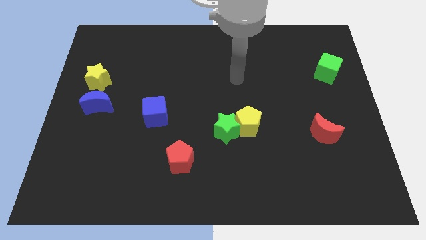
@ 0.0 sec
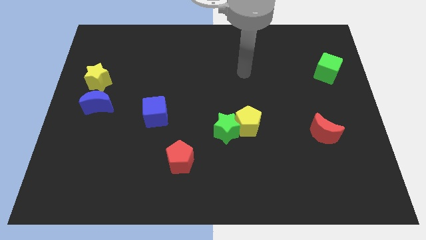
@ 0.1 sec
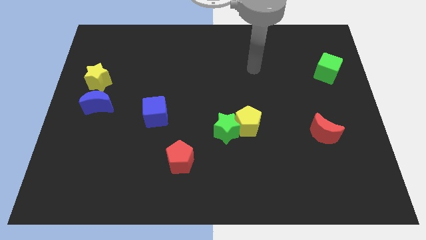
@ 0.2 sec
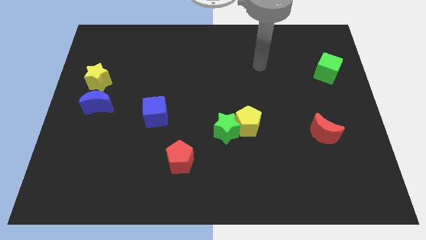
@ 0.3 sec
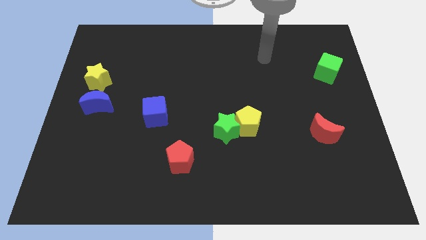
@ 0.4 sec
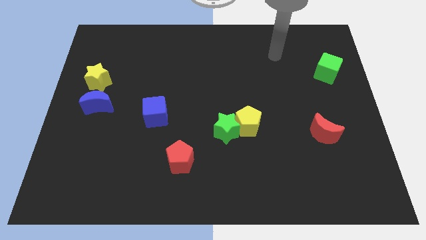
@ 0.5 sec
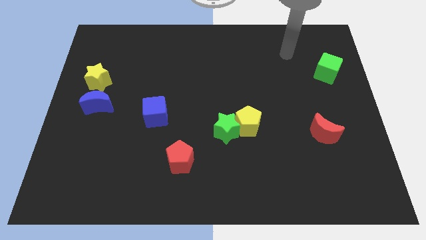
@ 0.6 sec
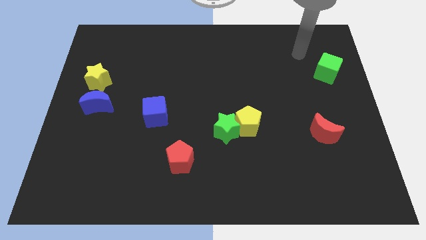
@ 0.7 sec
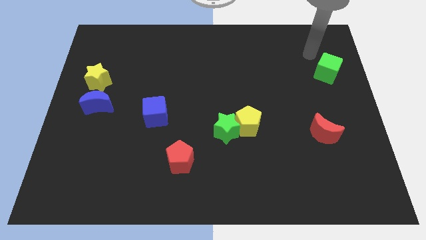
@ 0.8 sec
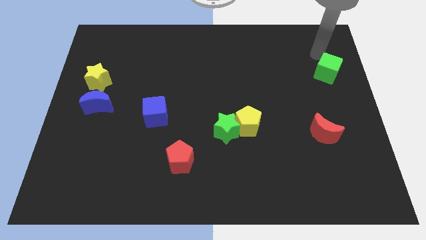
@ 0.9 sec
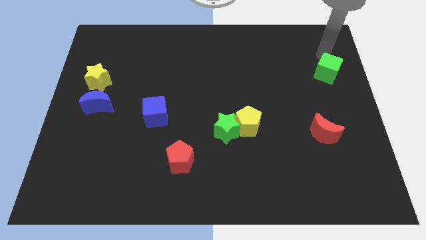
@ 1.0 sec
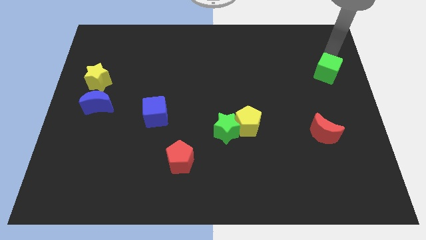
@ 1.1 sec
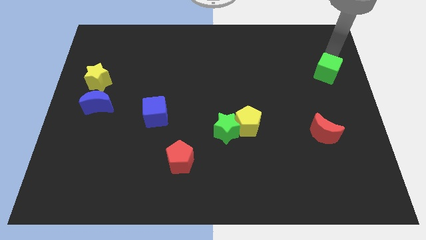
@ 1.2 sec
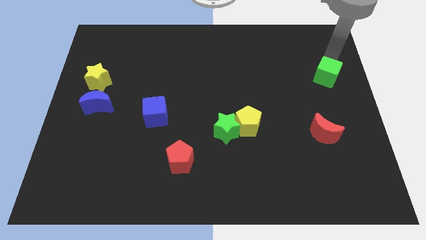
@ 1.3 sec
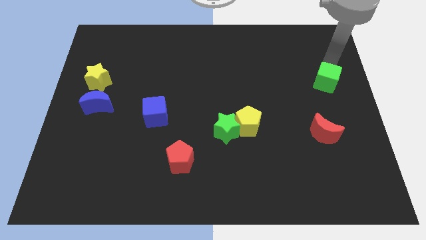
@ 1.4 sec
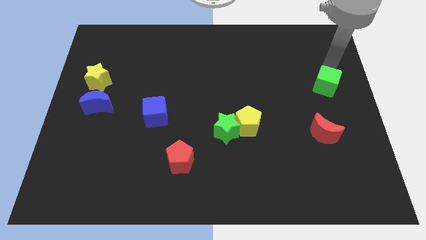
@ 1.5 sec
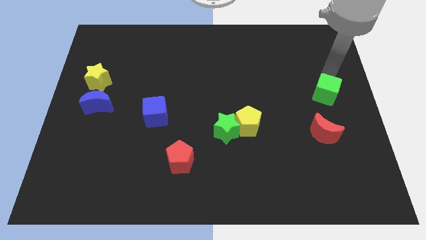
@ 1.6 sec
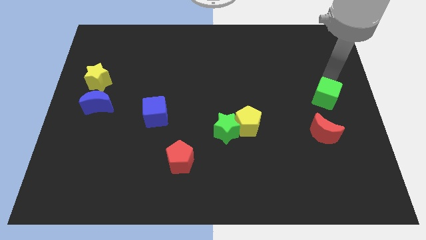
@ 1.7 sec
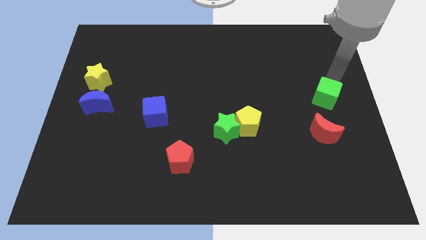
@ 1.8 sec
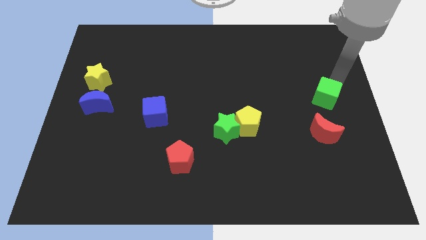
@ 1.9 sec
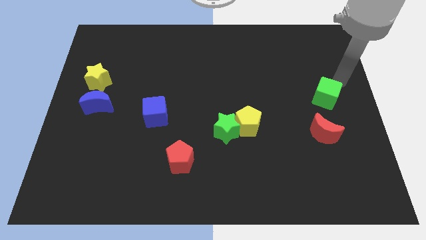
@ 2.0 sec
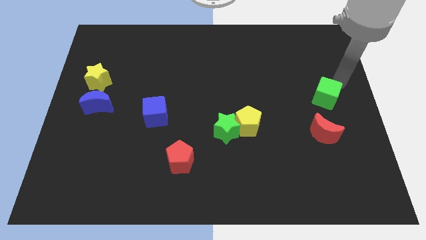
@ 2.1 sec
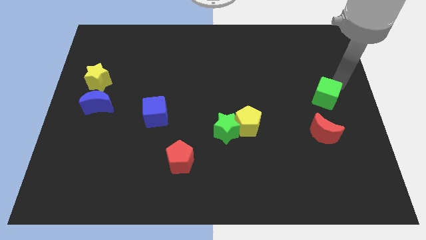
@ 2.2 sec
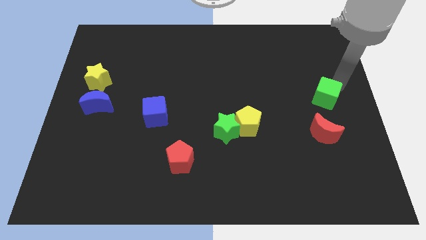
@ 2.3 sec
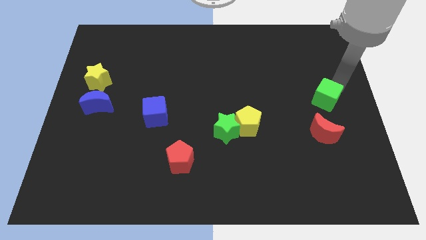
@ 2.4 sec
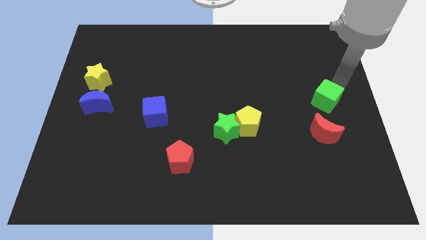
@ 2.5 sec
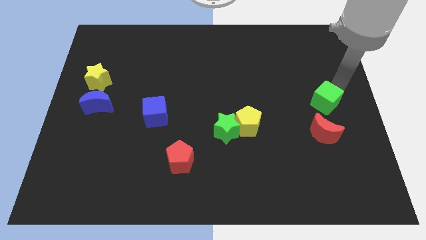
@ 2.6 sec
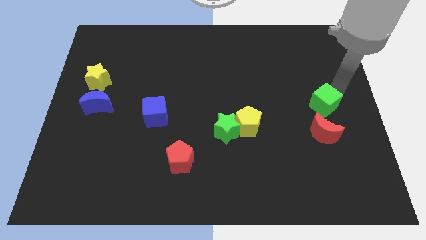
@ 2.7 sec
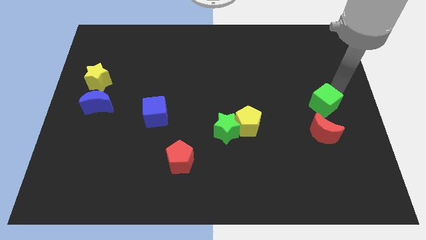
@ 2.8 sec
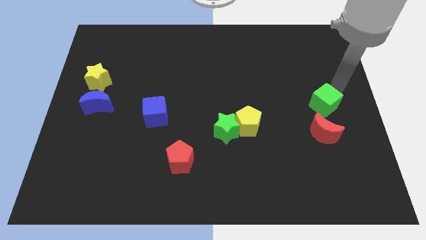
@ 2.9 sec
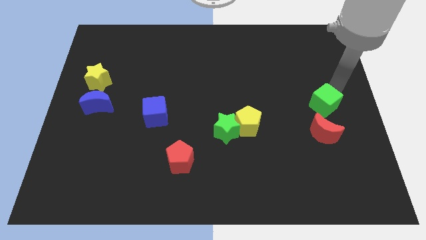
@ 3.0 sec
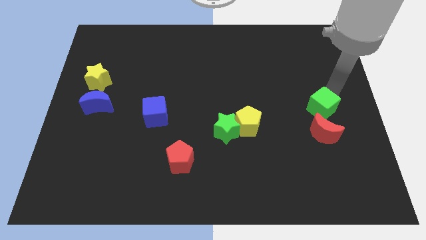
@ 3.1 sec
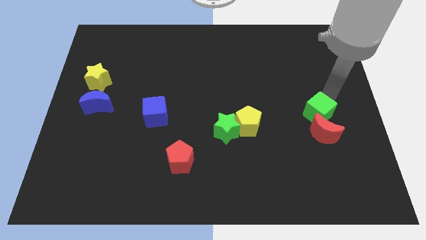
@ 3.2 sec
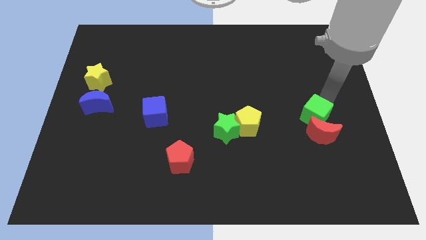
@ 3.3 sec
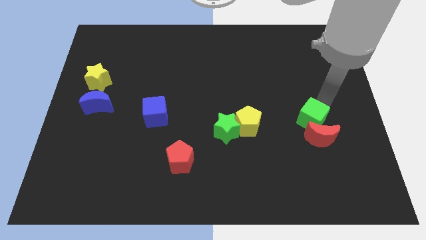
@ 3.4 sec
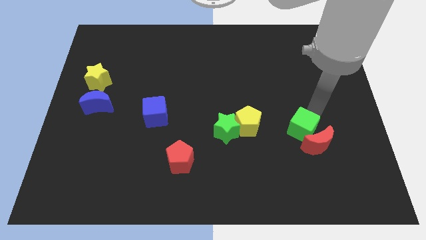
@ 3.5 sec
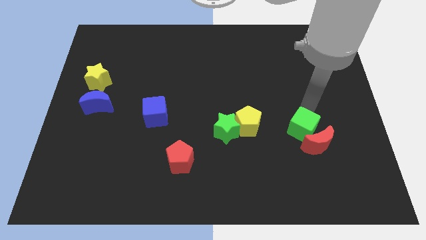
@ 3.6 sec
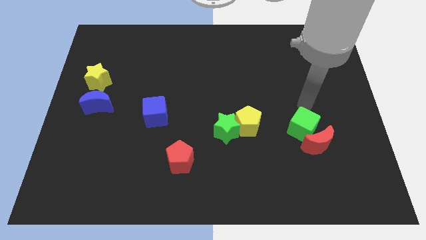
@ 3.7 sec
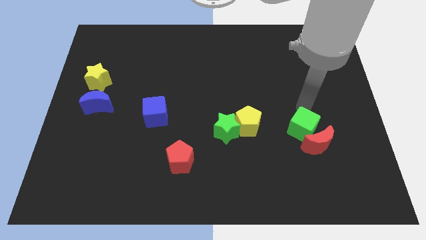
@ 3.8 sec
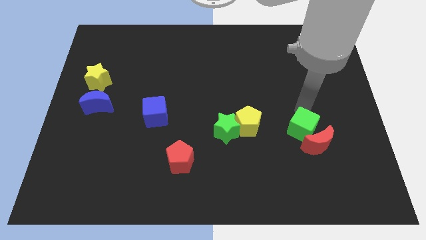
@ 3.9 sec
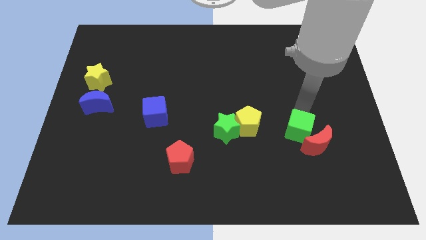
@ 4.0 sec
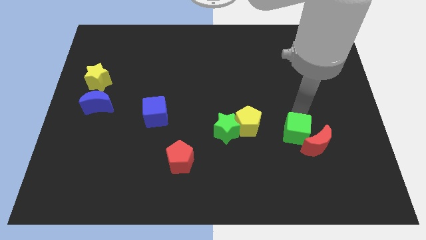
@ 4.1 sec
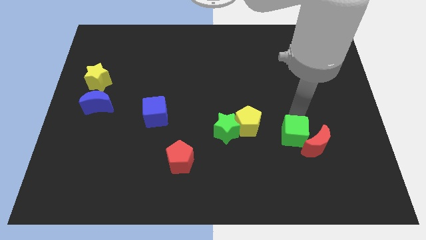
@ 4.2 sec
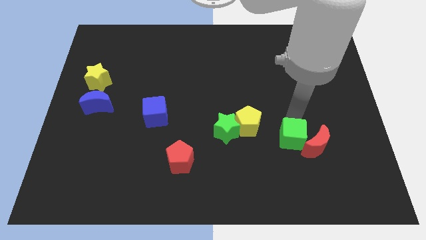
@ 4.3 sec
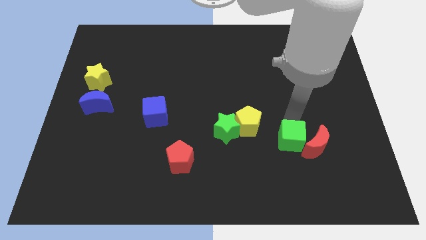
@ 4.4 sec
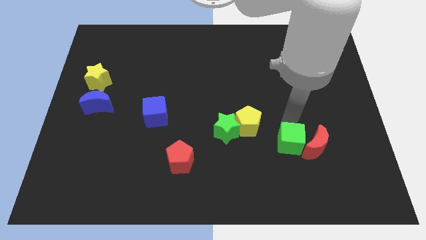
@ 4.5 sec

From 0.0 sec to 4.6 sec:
push the green cube to the bottom left of the red moon

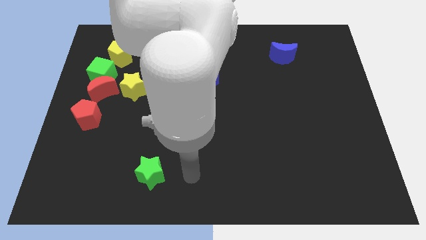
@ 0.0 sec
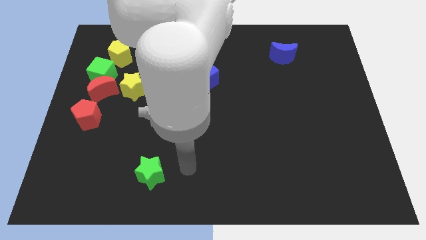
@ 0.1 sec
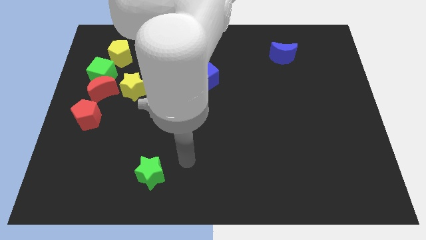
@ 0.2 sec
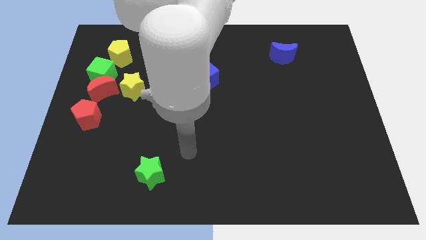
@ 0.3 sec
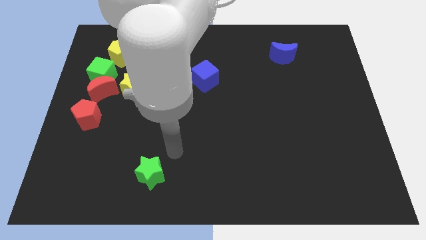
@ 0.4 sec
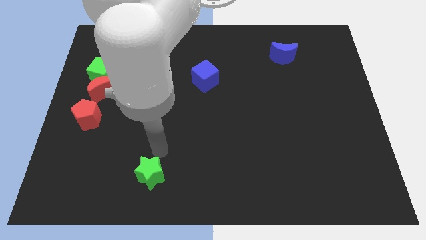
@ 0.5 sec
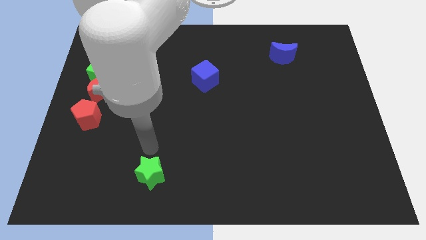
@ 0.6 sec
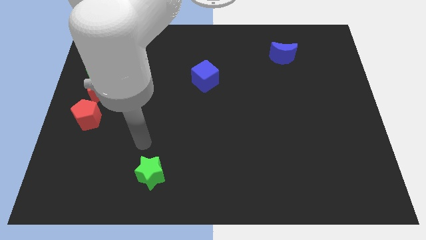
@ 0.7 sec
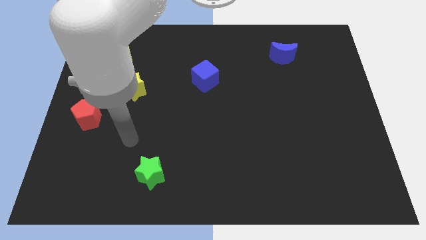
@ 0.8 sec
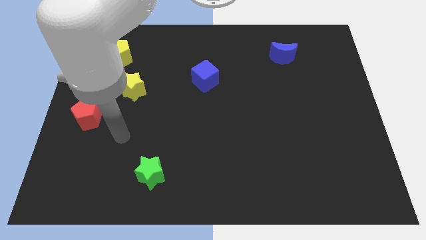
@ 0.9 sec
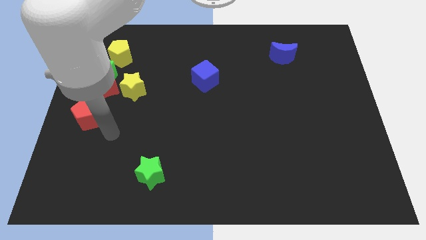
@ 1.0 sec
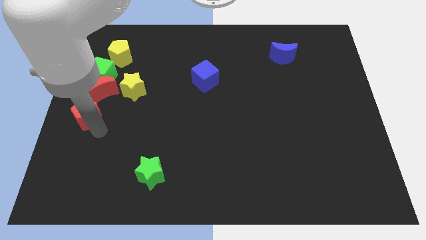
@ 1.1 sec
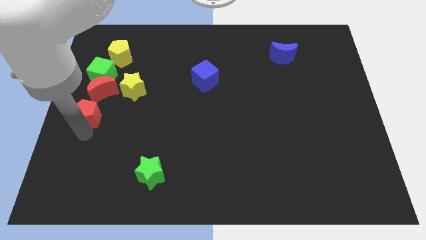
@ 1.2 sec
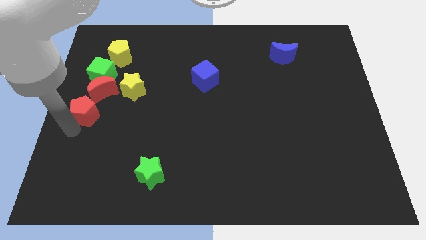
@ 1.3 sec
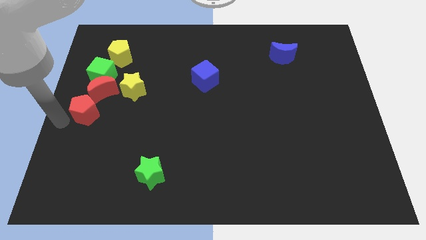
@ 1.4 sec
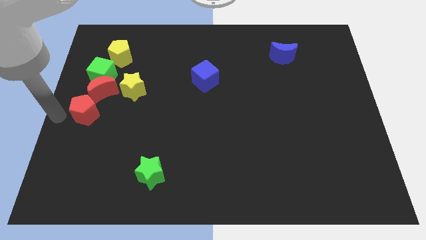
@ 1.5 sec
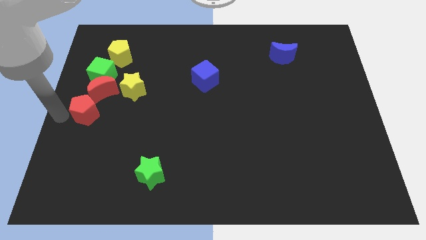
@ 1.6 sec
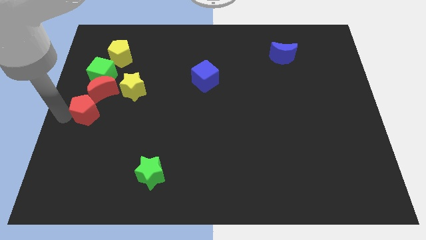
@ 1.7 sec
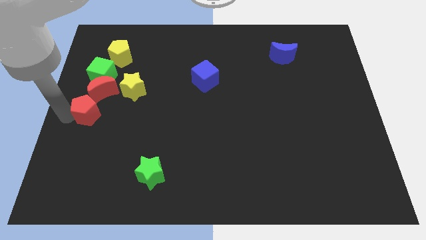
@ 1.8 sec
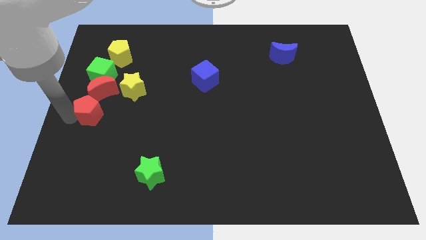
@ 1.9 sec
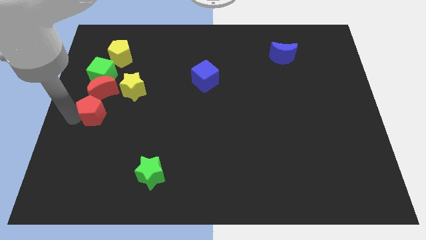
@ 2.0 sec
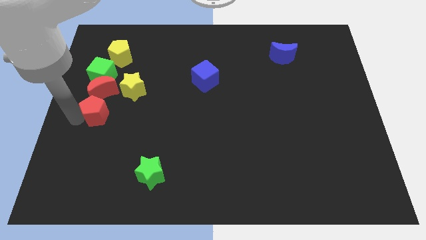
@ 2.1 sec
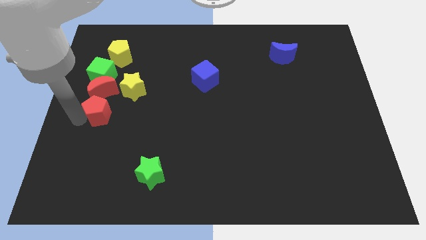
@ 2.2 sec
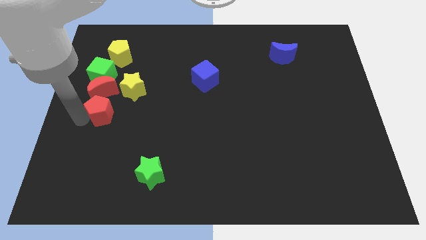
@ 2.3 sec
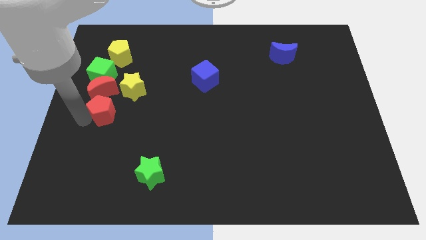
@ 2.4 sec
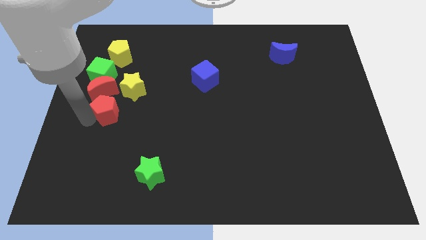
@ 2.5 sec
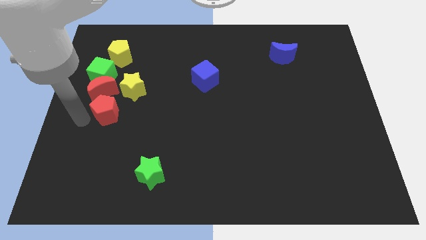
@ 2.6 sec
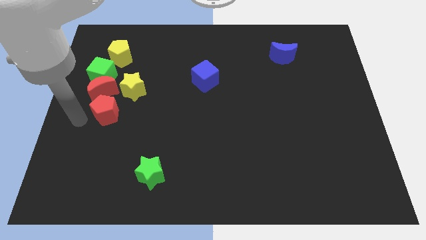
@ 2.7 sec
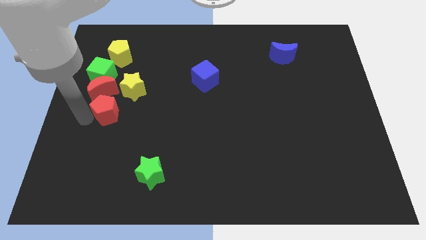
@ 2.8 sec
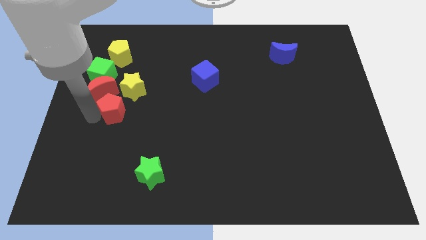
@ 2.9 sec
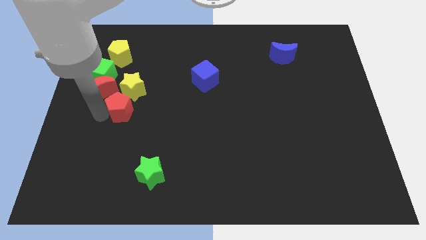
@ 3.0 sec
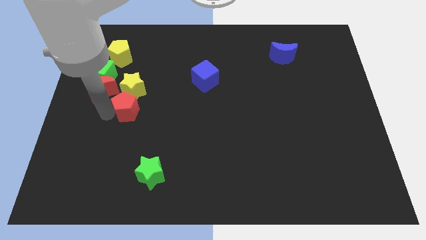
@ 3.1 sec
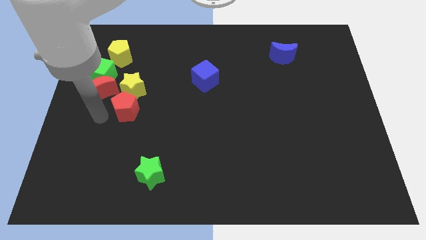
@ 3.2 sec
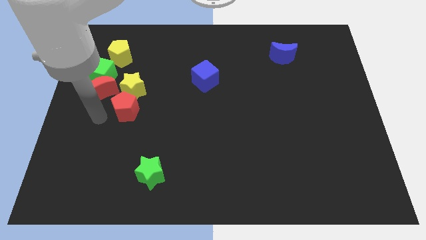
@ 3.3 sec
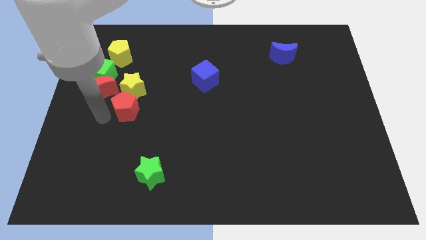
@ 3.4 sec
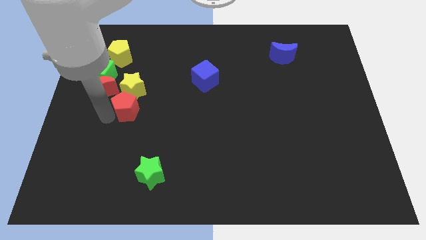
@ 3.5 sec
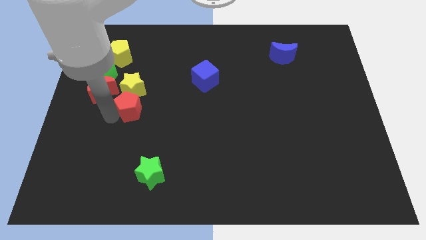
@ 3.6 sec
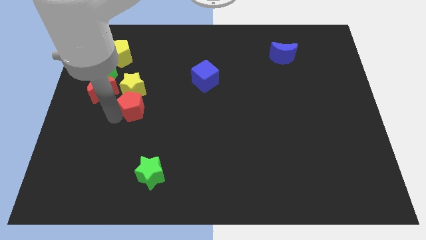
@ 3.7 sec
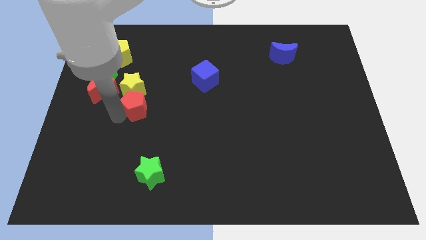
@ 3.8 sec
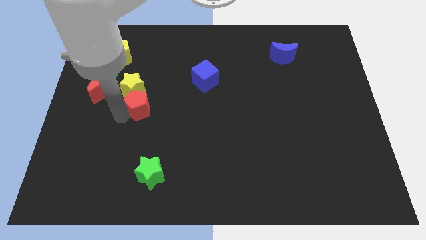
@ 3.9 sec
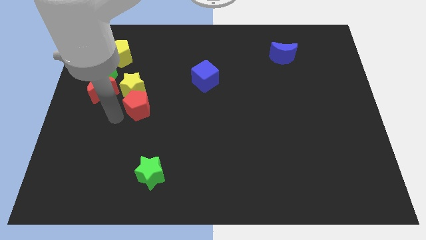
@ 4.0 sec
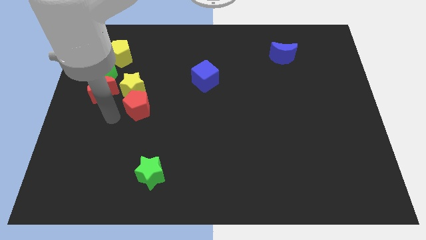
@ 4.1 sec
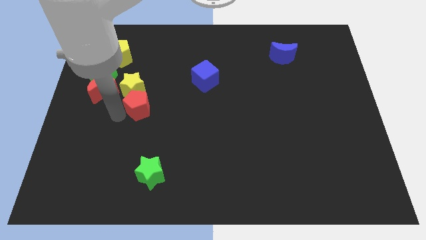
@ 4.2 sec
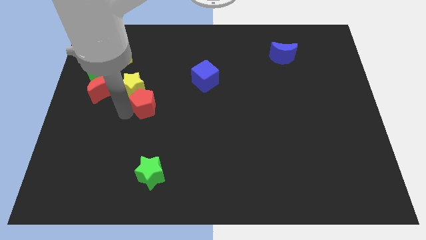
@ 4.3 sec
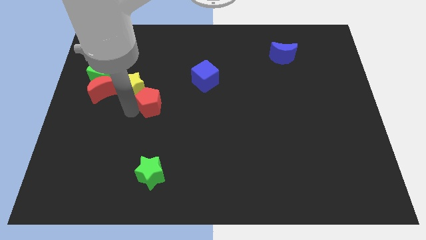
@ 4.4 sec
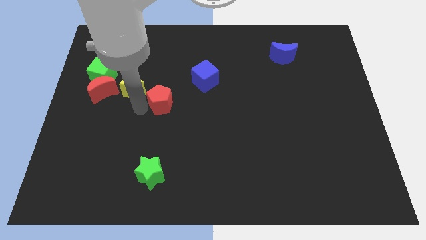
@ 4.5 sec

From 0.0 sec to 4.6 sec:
slide the red pentagon diagonally down and to the left of the blue cube
